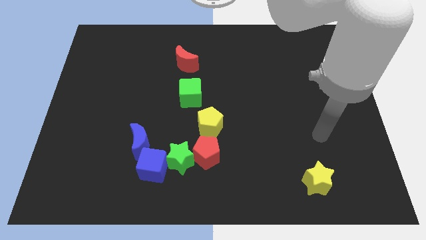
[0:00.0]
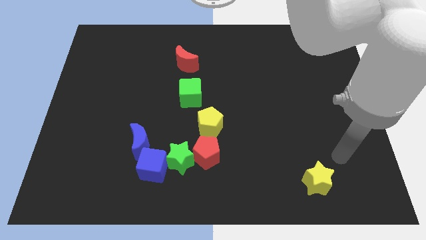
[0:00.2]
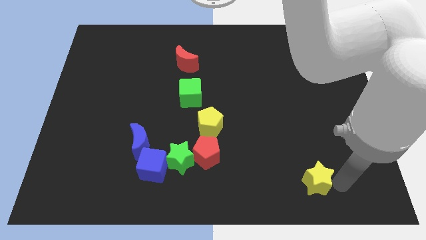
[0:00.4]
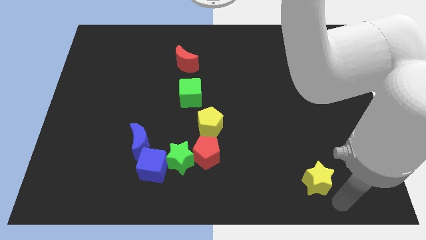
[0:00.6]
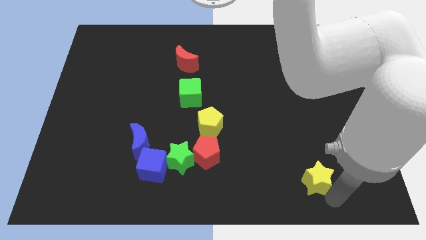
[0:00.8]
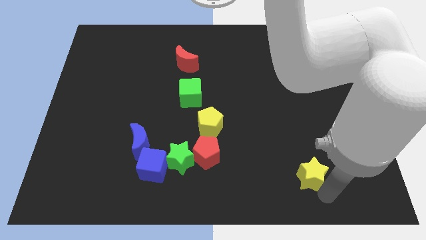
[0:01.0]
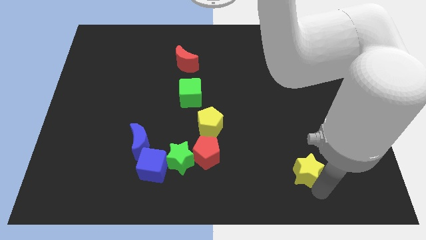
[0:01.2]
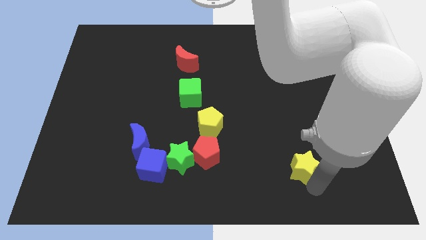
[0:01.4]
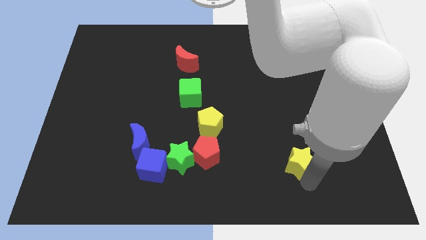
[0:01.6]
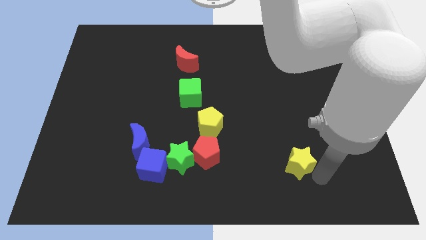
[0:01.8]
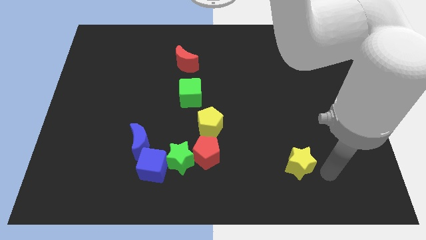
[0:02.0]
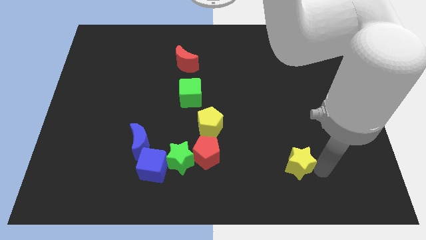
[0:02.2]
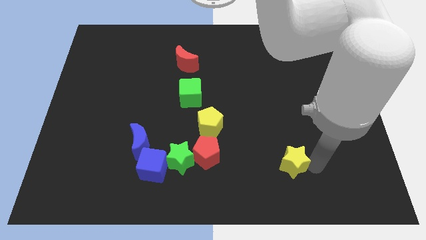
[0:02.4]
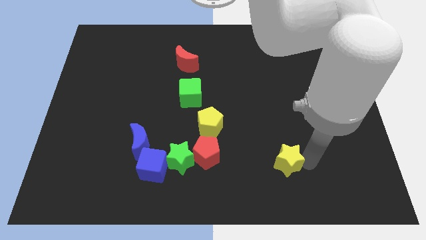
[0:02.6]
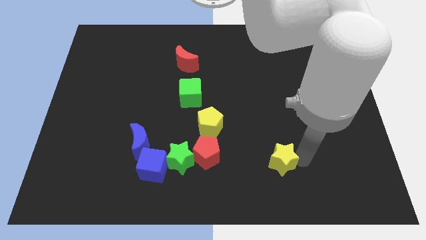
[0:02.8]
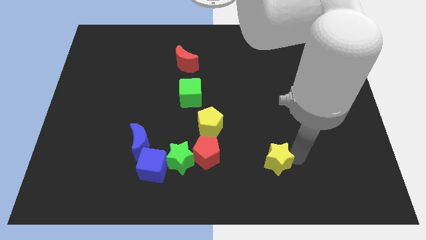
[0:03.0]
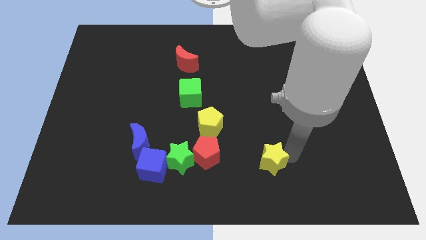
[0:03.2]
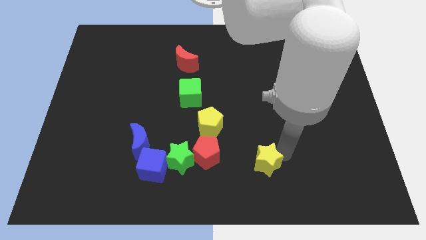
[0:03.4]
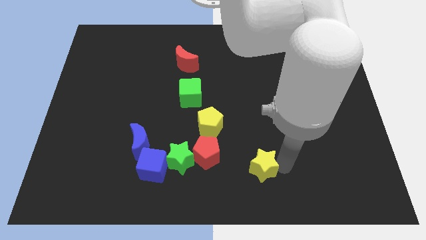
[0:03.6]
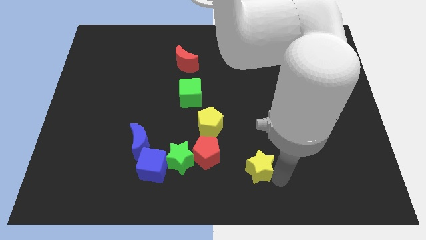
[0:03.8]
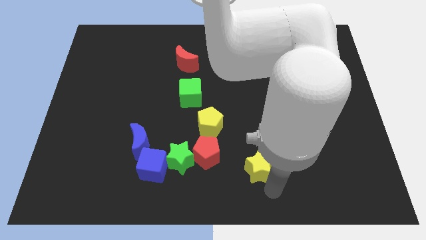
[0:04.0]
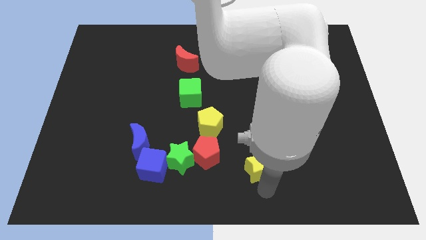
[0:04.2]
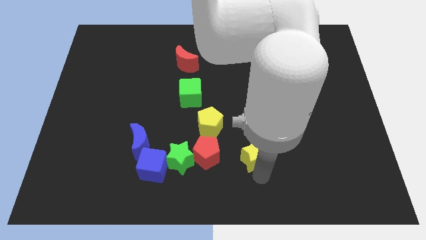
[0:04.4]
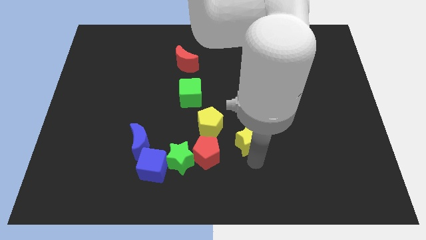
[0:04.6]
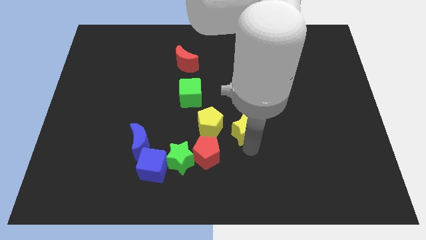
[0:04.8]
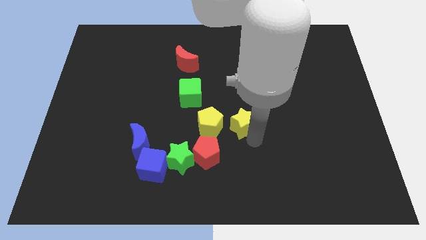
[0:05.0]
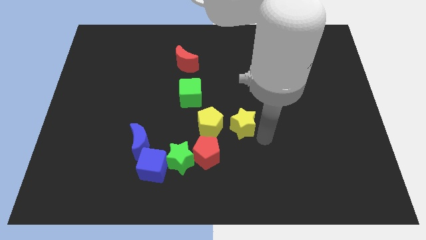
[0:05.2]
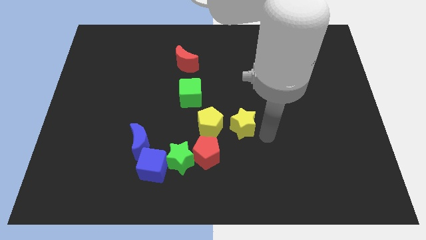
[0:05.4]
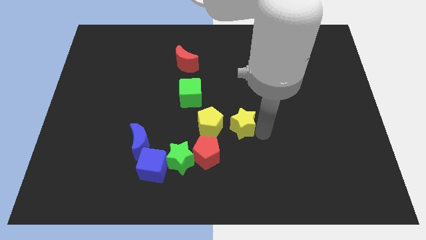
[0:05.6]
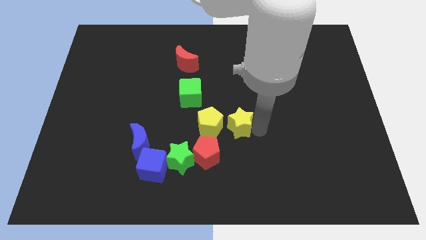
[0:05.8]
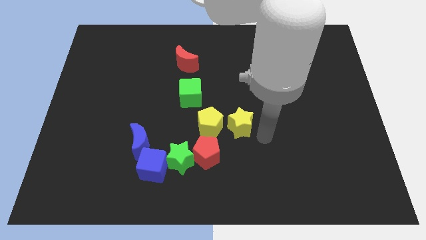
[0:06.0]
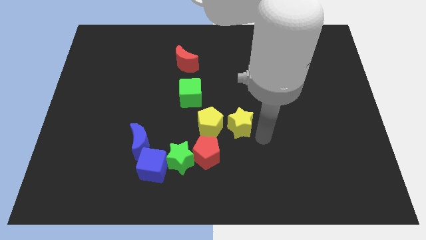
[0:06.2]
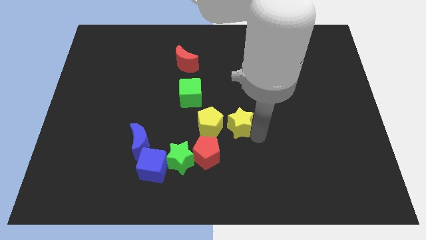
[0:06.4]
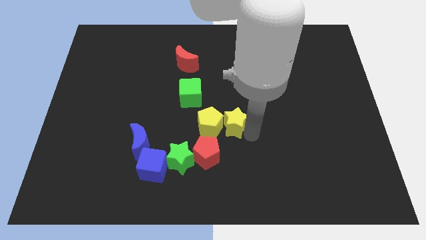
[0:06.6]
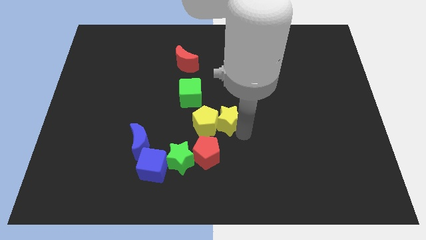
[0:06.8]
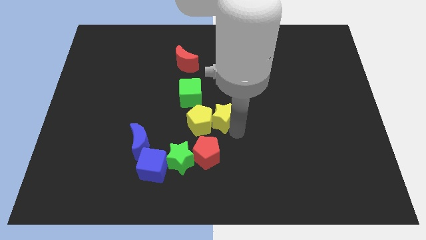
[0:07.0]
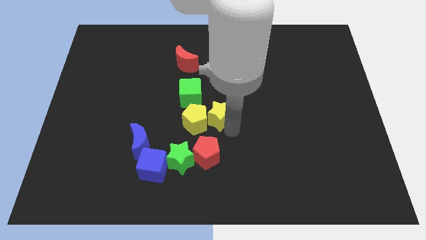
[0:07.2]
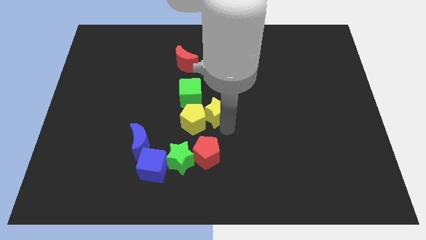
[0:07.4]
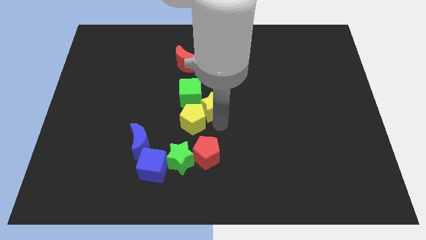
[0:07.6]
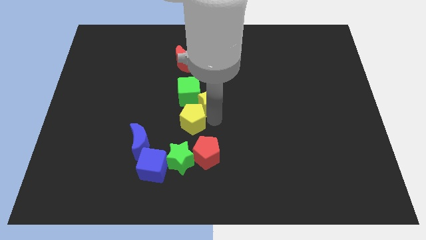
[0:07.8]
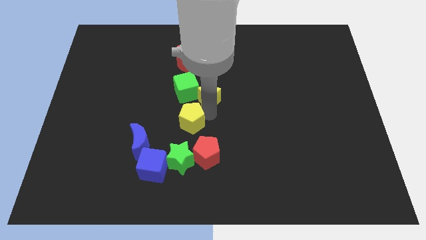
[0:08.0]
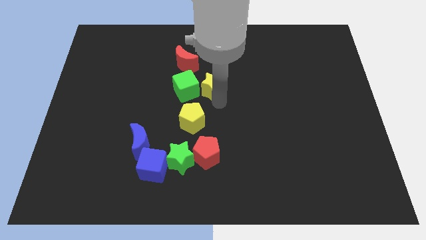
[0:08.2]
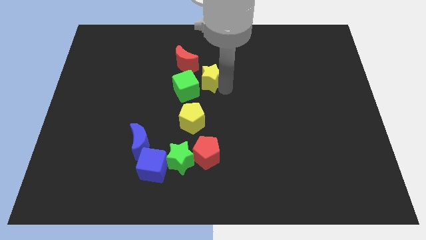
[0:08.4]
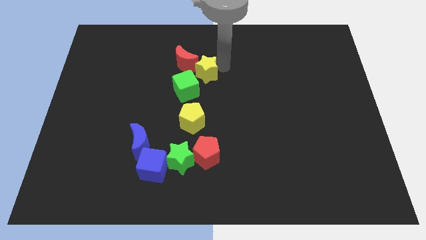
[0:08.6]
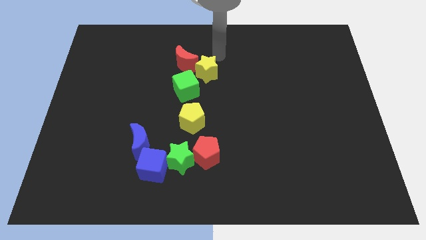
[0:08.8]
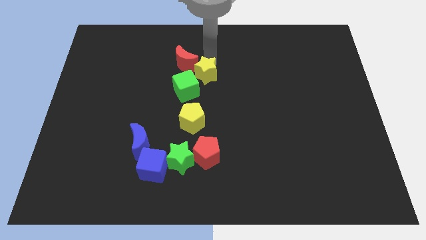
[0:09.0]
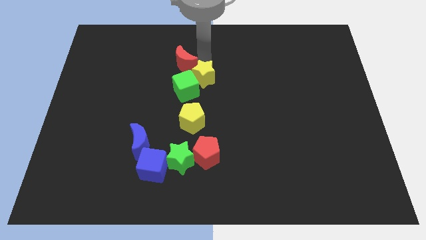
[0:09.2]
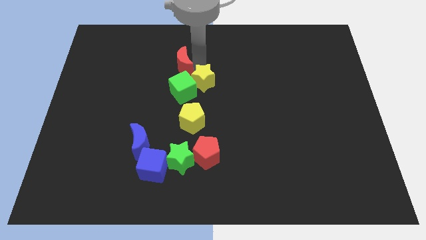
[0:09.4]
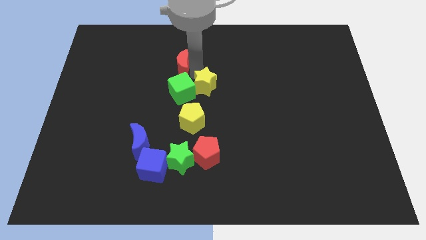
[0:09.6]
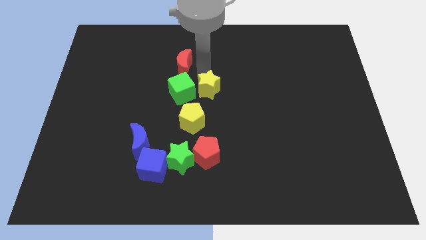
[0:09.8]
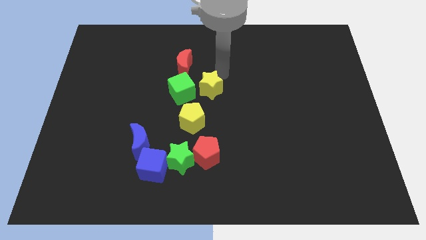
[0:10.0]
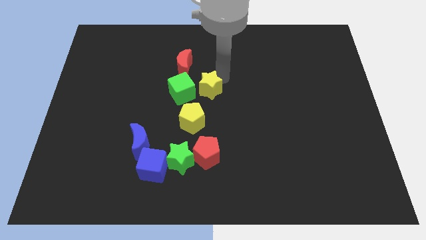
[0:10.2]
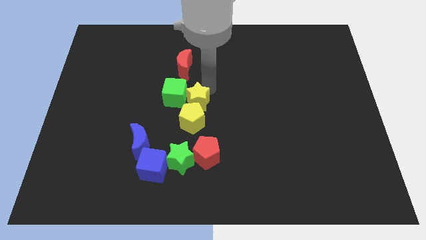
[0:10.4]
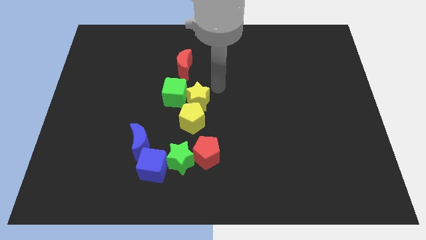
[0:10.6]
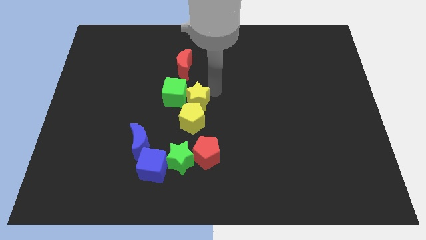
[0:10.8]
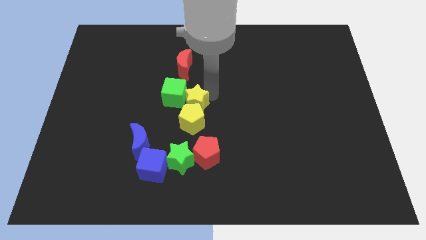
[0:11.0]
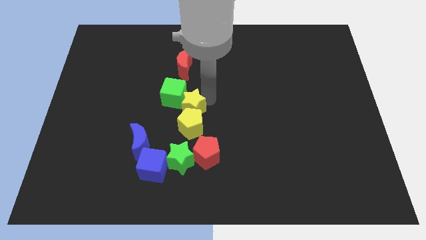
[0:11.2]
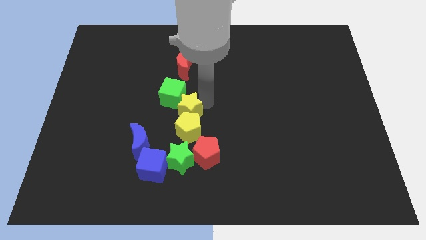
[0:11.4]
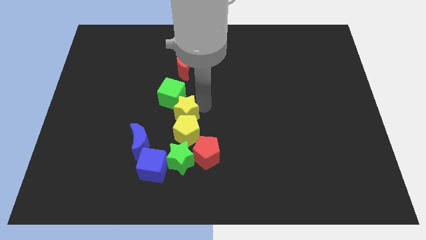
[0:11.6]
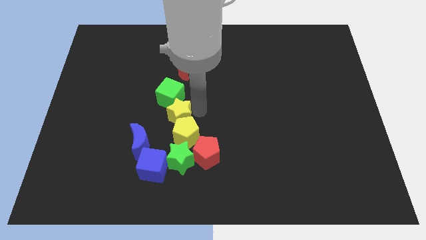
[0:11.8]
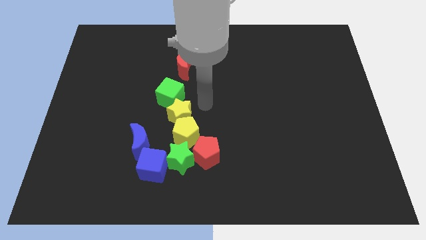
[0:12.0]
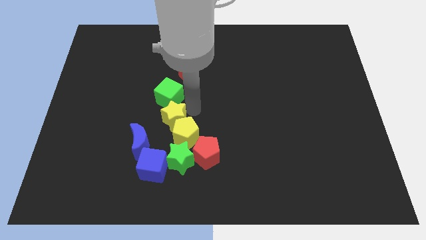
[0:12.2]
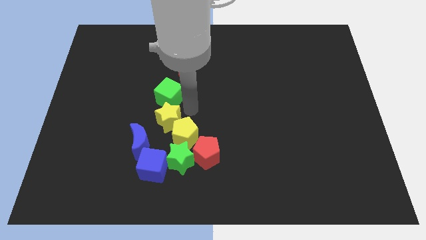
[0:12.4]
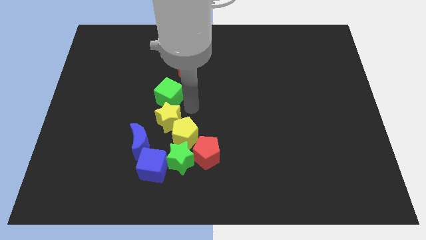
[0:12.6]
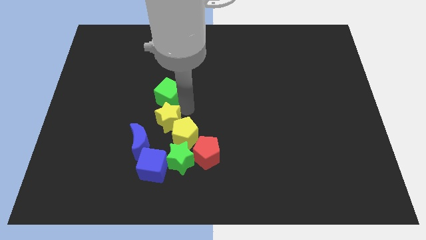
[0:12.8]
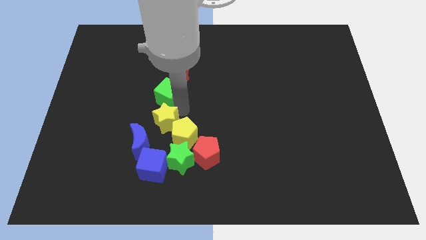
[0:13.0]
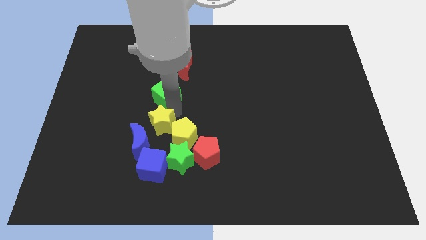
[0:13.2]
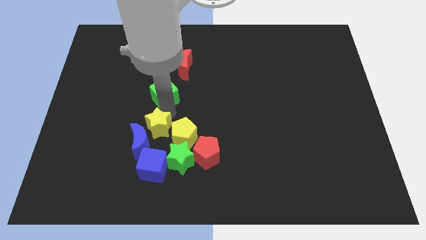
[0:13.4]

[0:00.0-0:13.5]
push the yellow star next to the blue moon

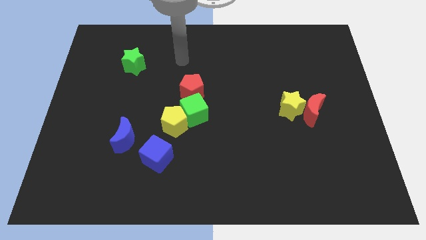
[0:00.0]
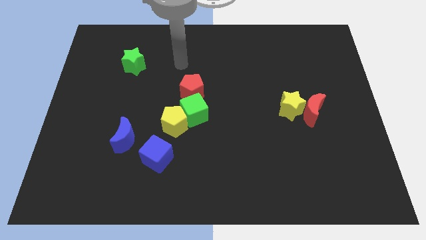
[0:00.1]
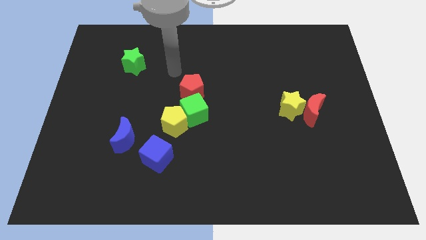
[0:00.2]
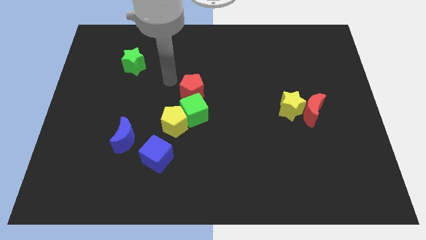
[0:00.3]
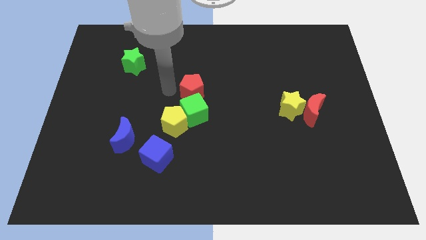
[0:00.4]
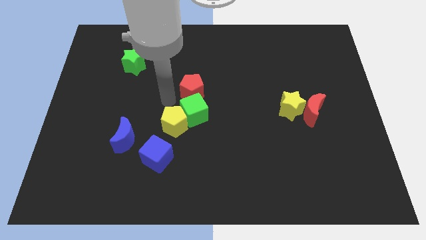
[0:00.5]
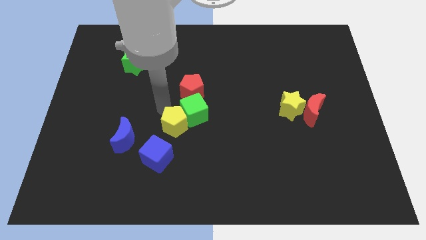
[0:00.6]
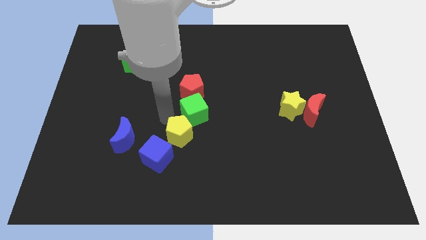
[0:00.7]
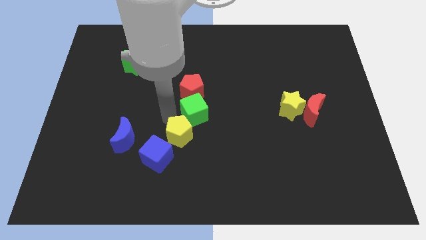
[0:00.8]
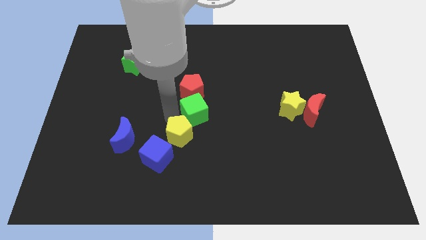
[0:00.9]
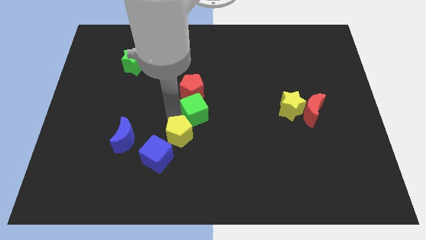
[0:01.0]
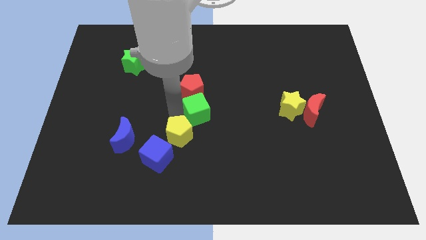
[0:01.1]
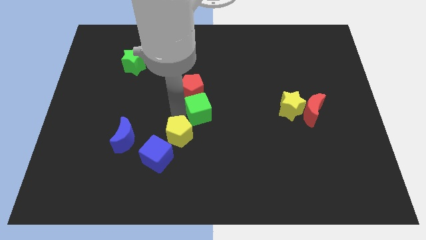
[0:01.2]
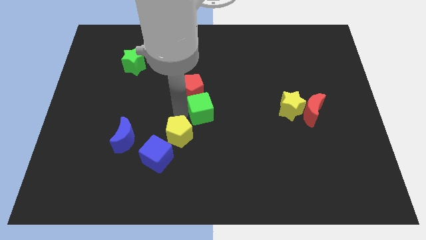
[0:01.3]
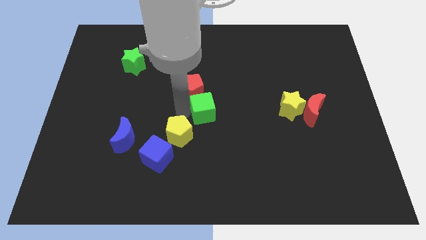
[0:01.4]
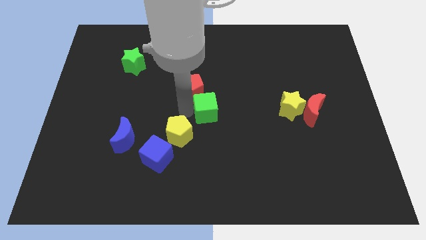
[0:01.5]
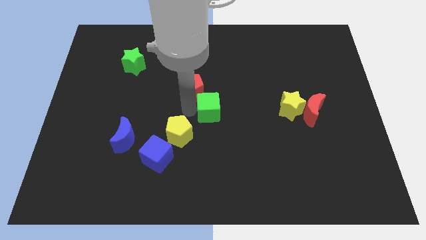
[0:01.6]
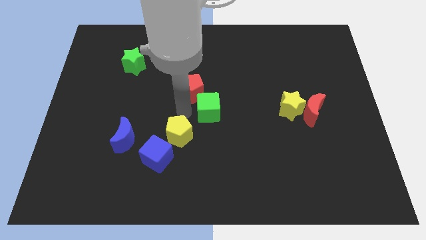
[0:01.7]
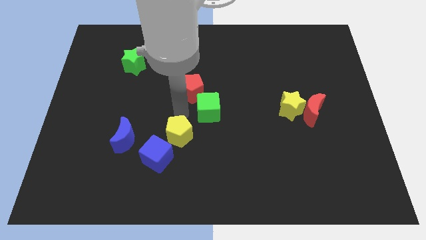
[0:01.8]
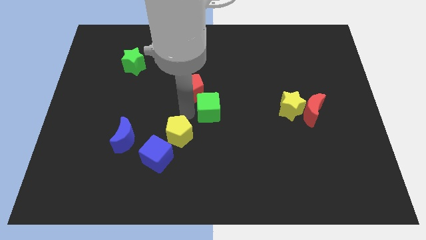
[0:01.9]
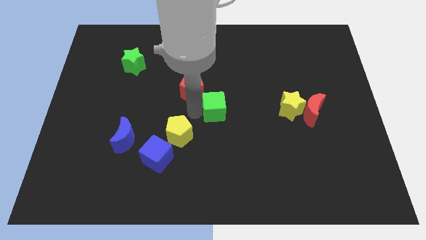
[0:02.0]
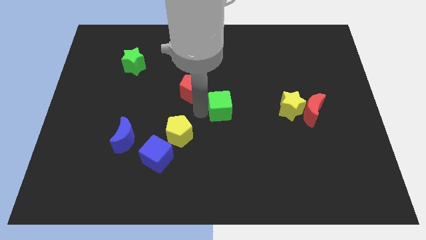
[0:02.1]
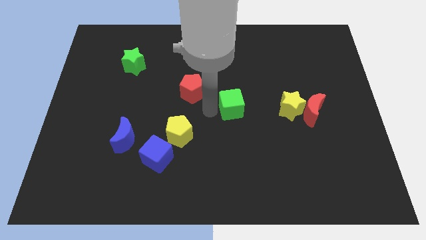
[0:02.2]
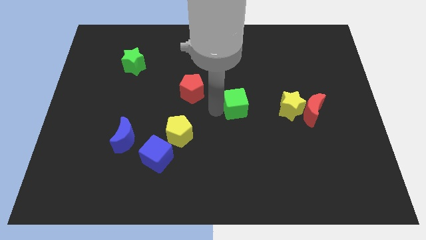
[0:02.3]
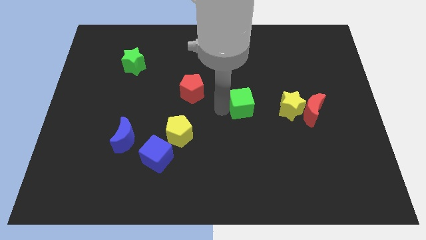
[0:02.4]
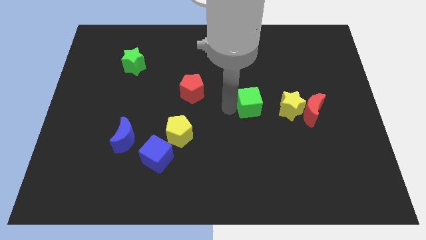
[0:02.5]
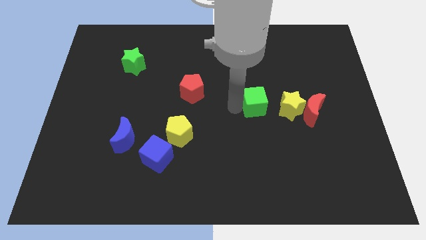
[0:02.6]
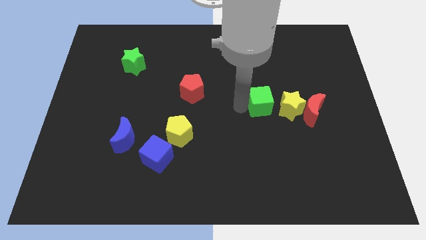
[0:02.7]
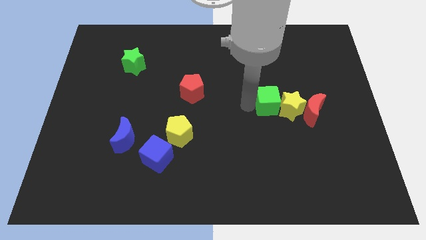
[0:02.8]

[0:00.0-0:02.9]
move the green cube close to the yellow star
